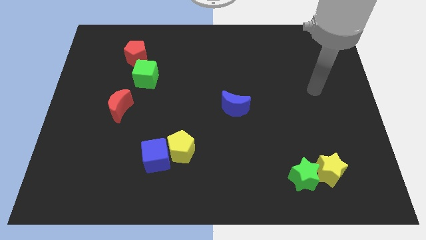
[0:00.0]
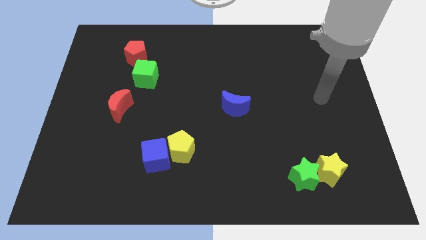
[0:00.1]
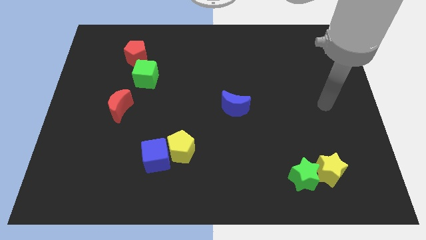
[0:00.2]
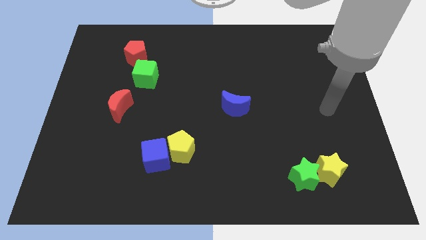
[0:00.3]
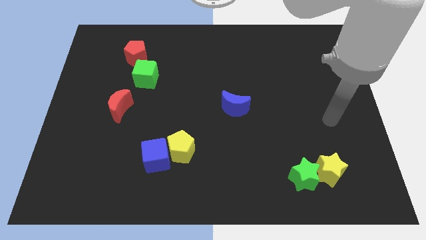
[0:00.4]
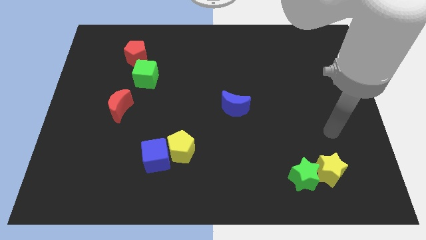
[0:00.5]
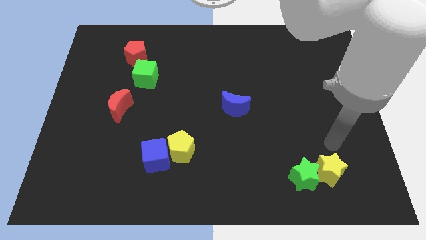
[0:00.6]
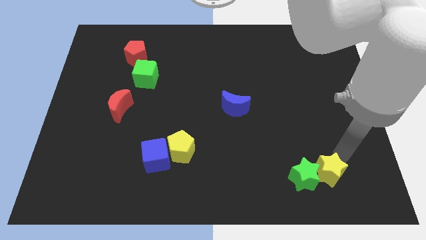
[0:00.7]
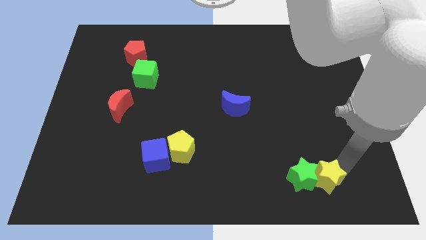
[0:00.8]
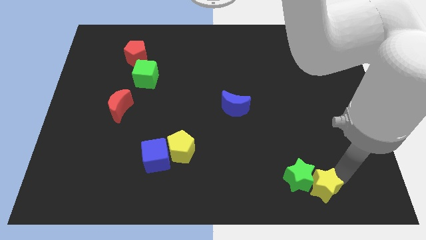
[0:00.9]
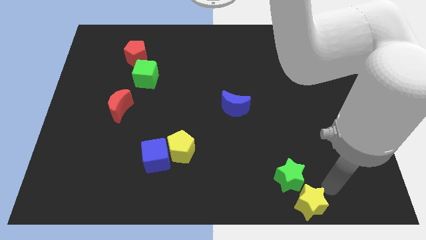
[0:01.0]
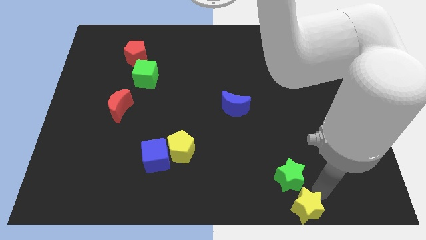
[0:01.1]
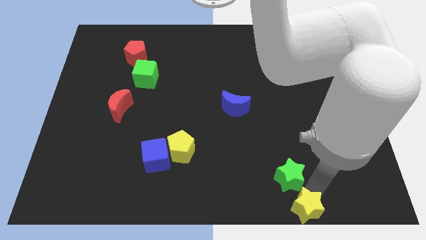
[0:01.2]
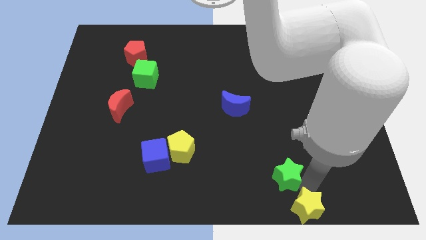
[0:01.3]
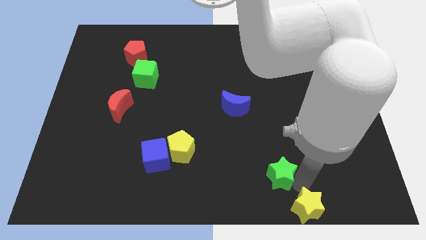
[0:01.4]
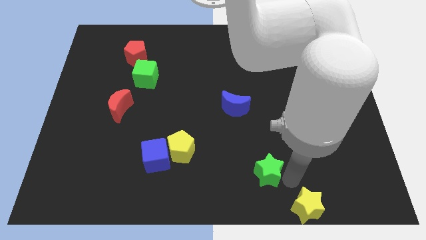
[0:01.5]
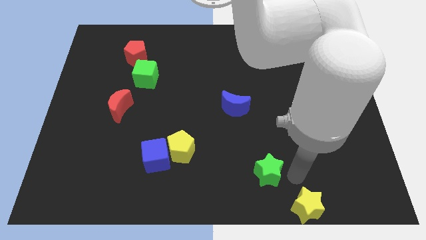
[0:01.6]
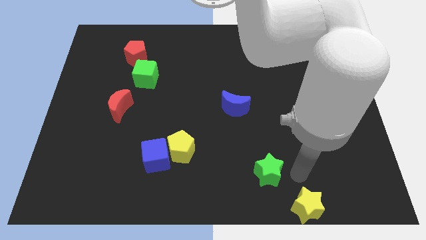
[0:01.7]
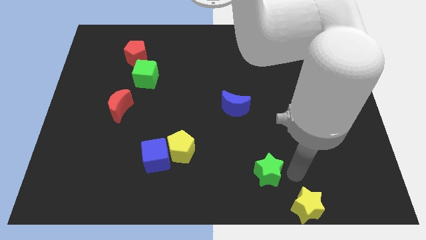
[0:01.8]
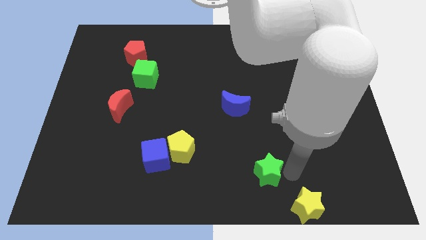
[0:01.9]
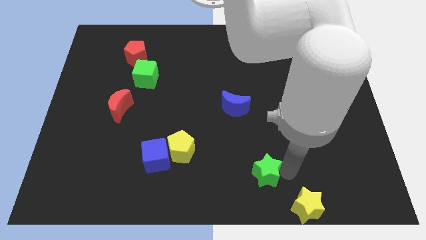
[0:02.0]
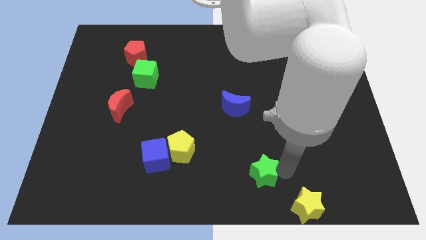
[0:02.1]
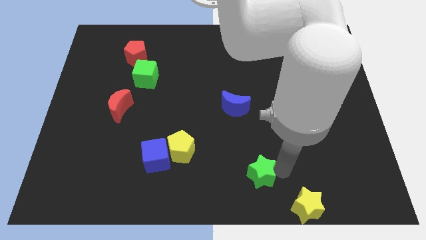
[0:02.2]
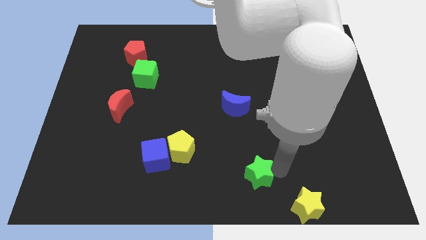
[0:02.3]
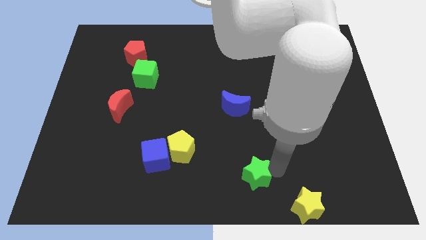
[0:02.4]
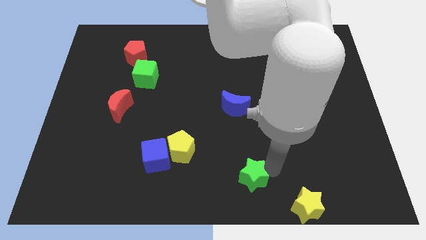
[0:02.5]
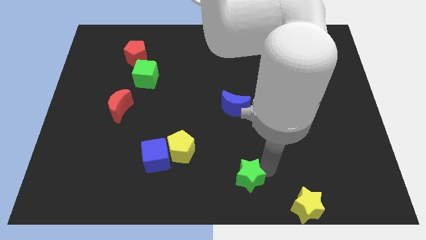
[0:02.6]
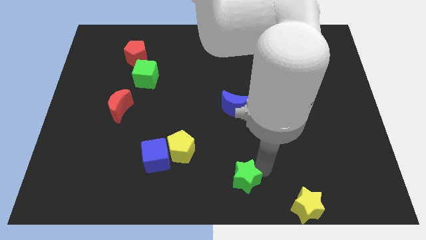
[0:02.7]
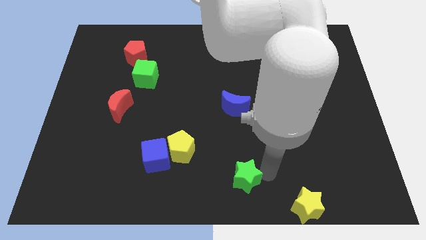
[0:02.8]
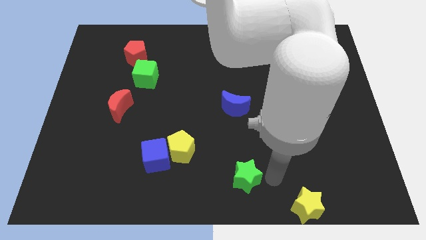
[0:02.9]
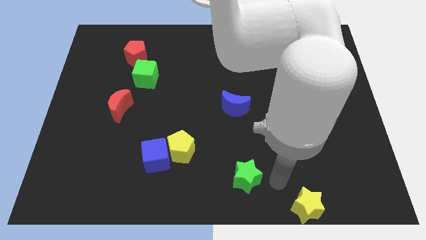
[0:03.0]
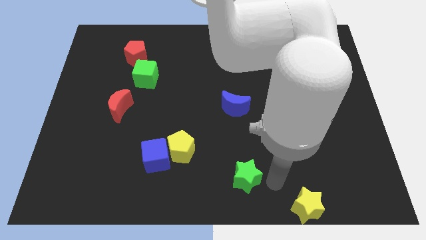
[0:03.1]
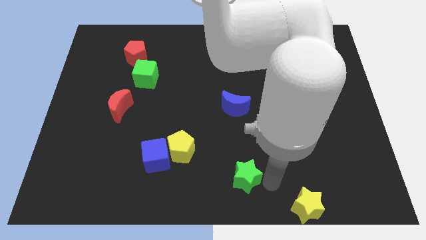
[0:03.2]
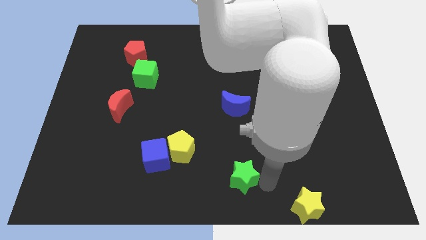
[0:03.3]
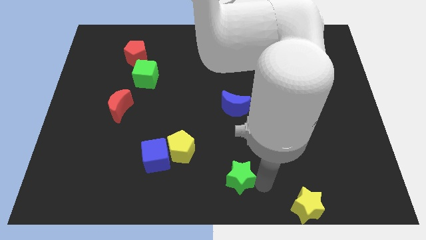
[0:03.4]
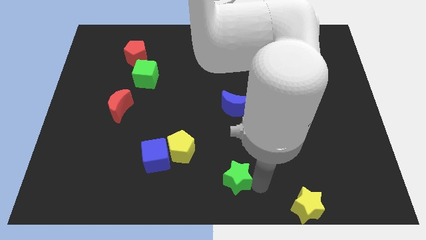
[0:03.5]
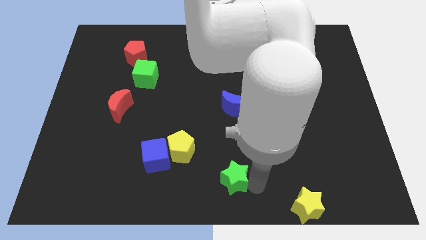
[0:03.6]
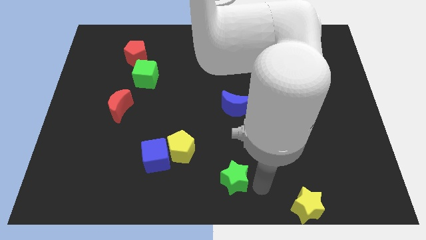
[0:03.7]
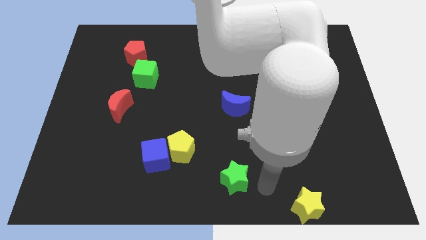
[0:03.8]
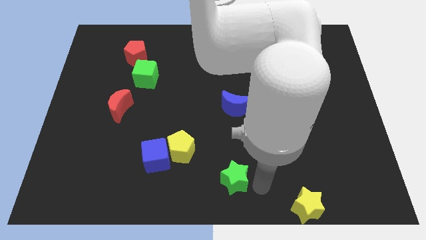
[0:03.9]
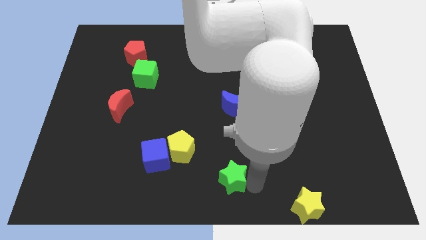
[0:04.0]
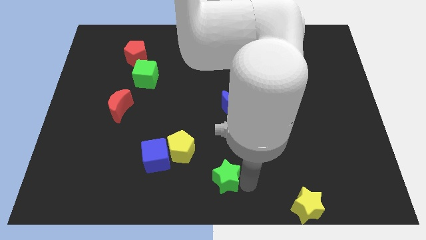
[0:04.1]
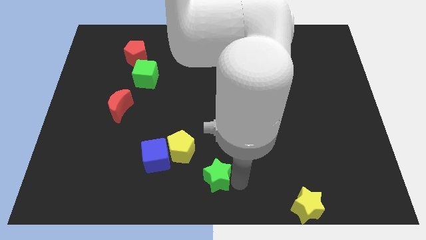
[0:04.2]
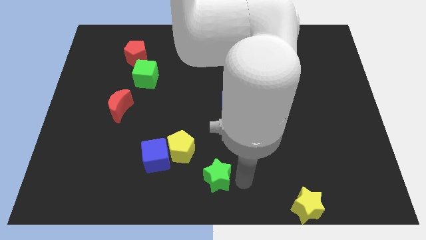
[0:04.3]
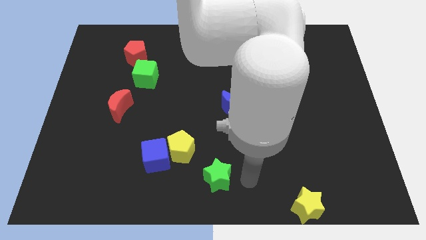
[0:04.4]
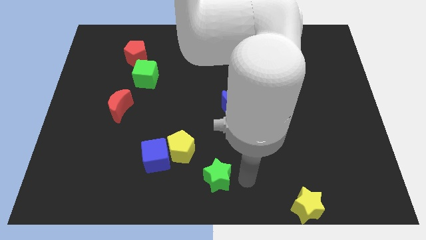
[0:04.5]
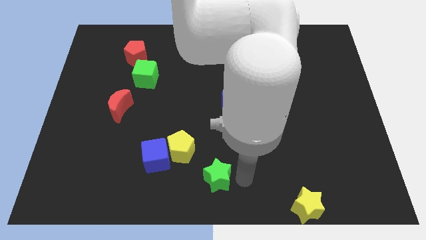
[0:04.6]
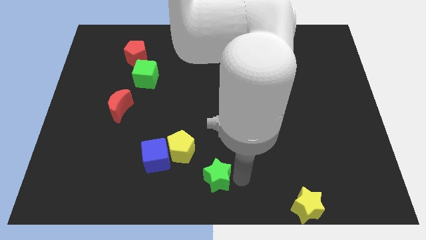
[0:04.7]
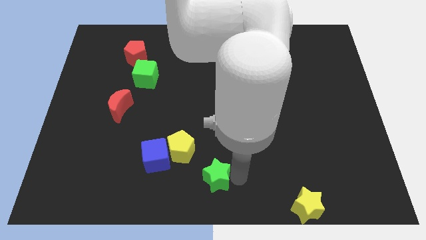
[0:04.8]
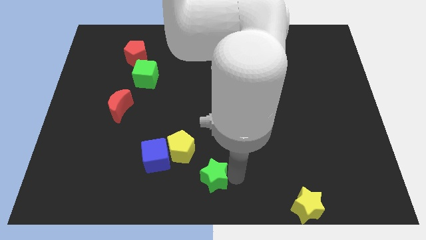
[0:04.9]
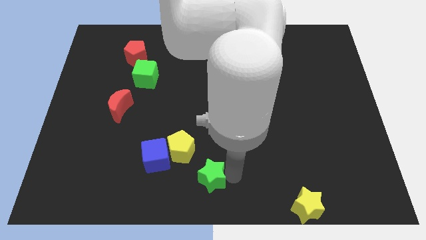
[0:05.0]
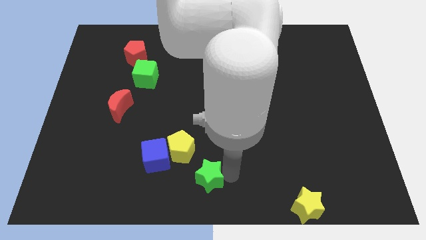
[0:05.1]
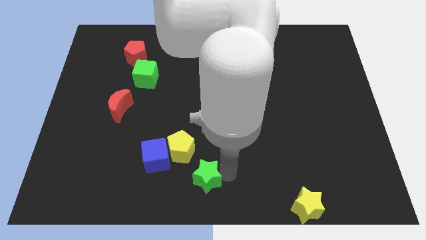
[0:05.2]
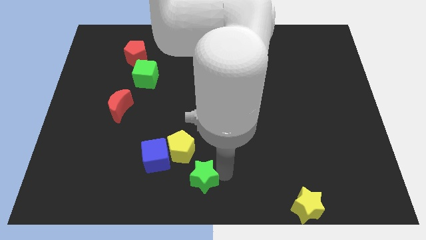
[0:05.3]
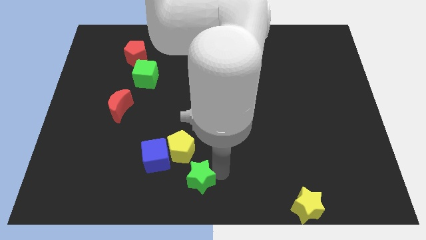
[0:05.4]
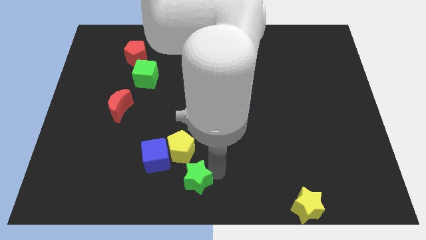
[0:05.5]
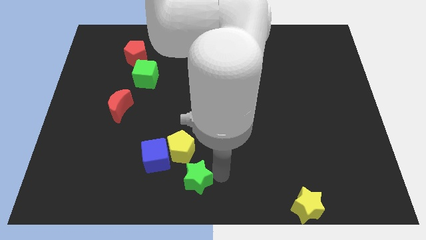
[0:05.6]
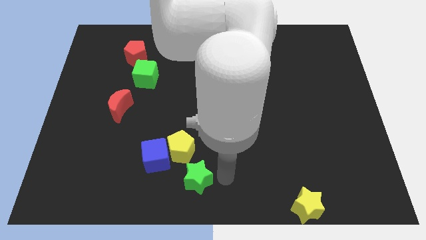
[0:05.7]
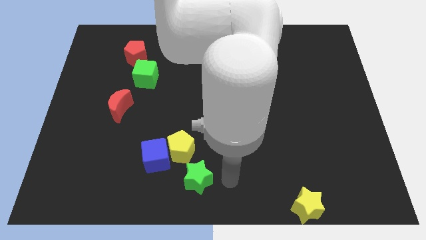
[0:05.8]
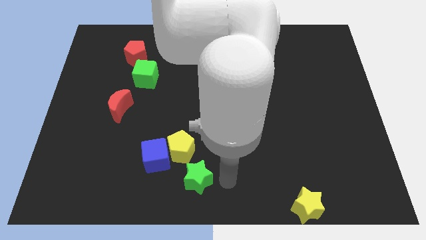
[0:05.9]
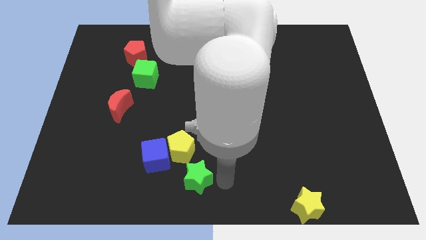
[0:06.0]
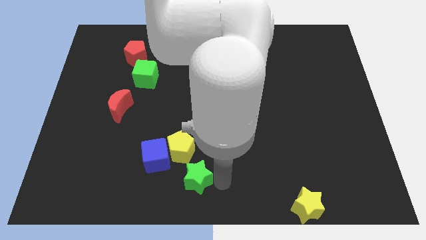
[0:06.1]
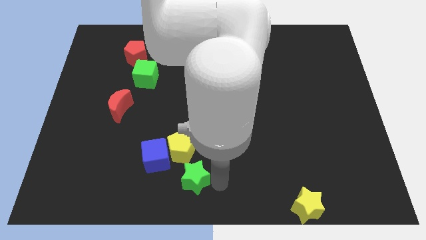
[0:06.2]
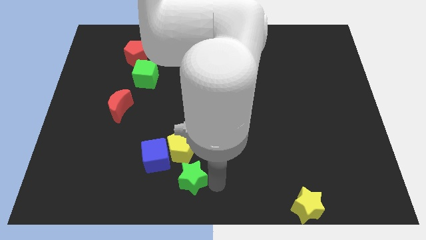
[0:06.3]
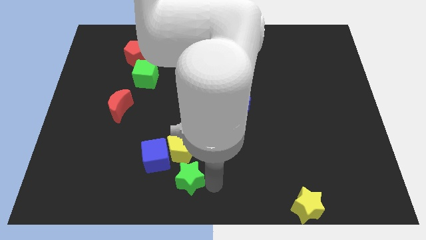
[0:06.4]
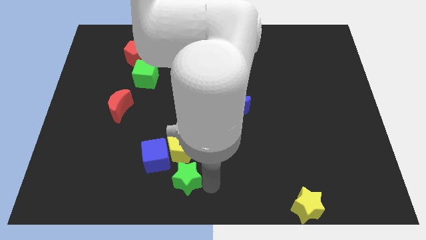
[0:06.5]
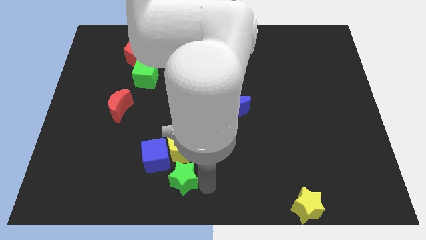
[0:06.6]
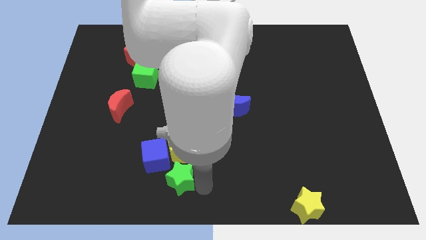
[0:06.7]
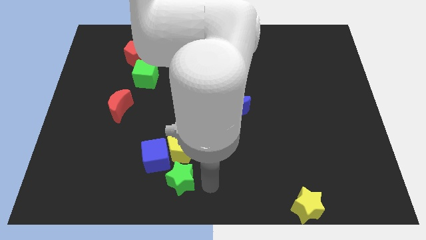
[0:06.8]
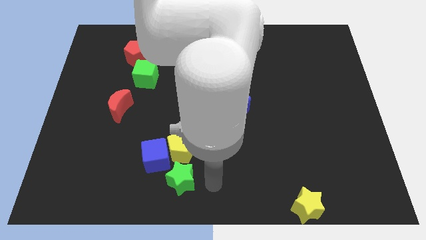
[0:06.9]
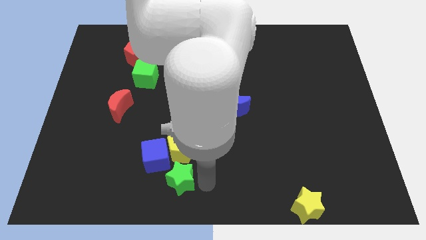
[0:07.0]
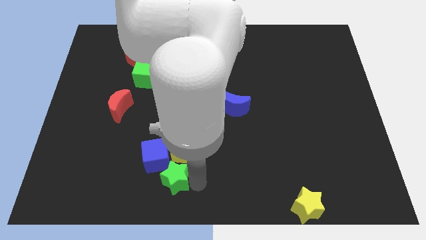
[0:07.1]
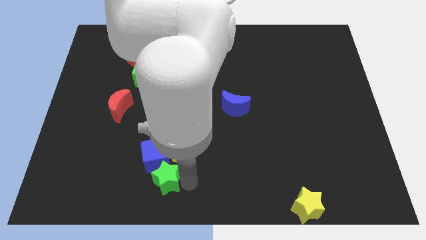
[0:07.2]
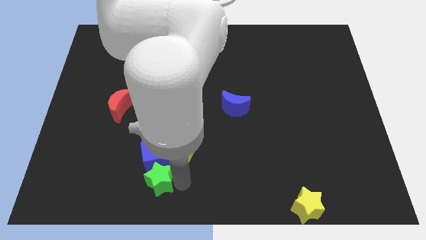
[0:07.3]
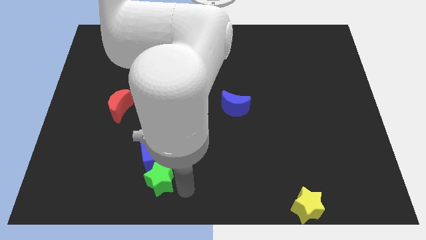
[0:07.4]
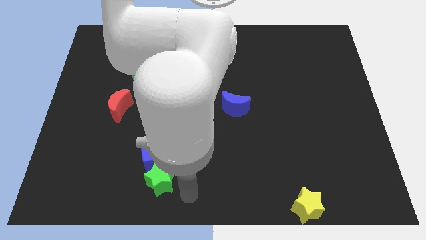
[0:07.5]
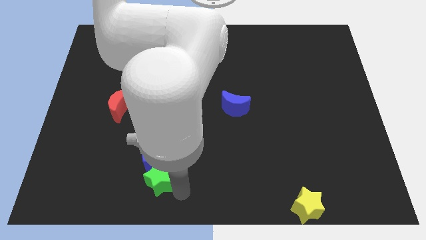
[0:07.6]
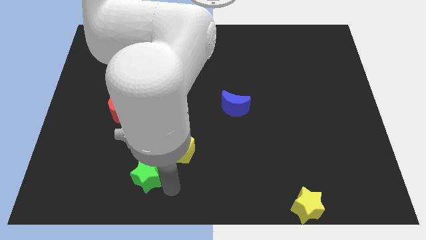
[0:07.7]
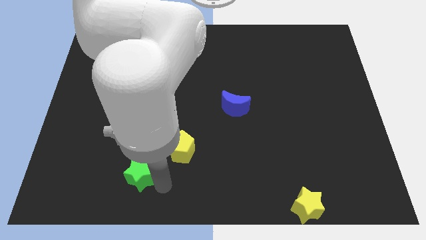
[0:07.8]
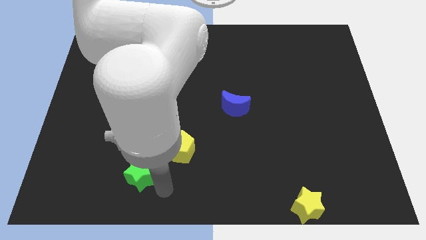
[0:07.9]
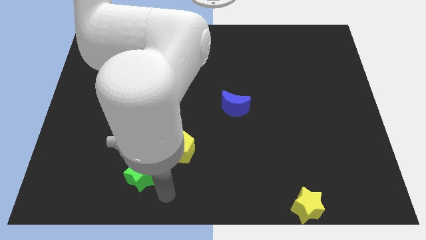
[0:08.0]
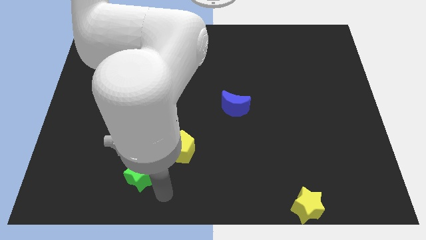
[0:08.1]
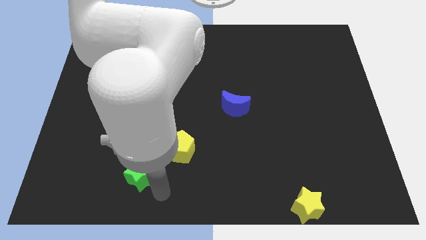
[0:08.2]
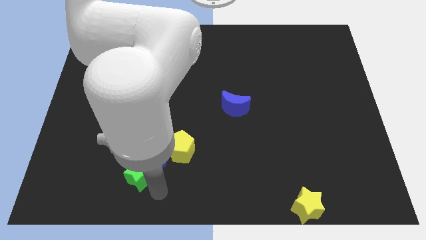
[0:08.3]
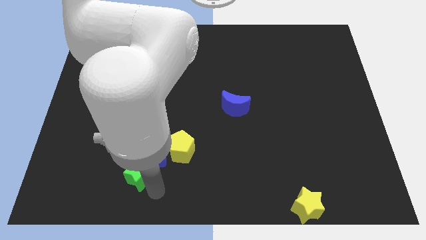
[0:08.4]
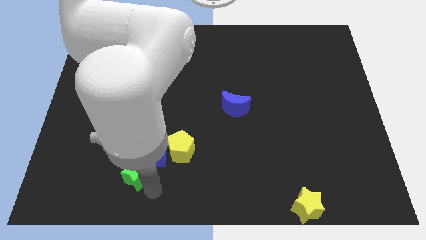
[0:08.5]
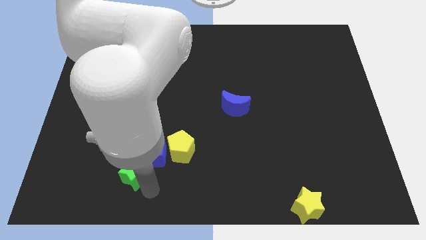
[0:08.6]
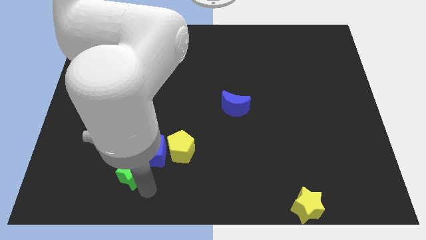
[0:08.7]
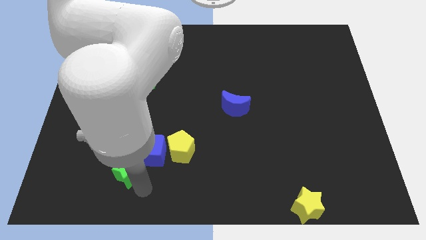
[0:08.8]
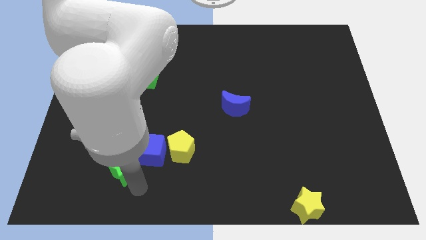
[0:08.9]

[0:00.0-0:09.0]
move the green star just left of the blue cube
